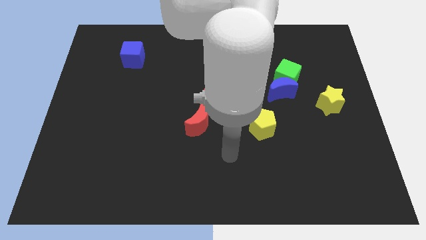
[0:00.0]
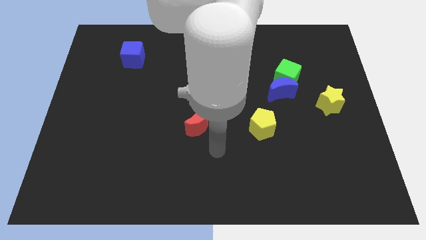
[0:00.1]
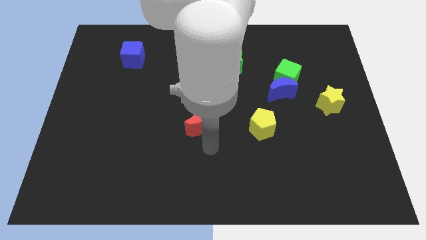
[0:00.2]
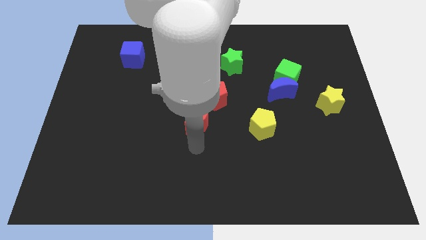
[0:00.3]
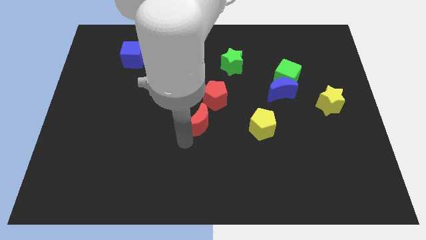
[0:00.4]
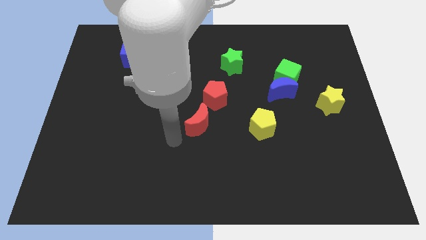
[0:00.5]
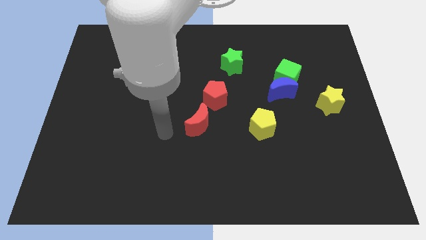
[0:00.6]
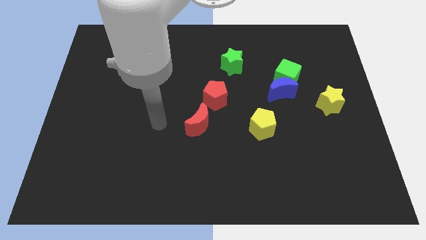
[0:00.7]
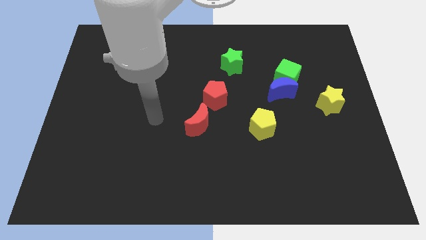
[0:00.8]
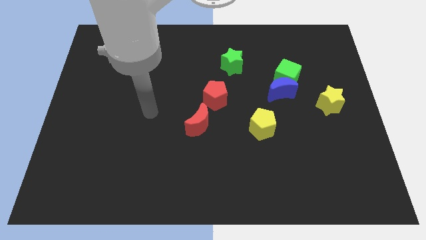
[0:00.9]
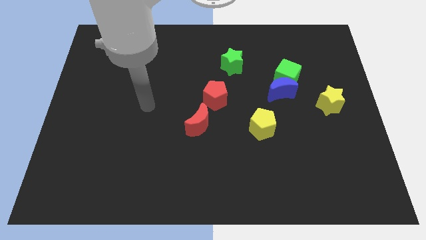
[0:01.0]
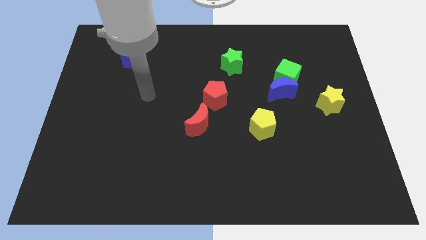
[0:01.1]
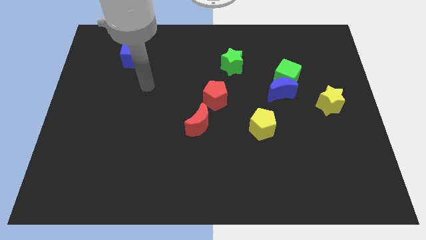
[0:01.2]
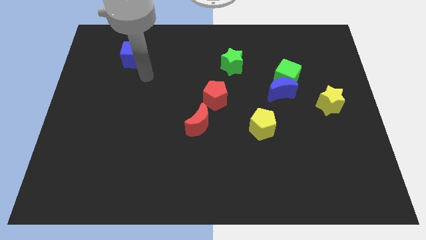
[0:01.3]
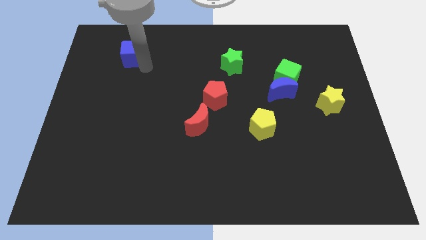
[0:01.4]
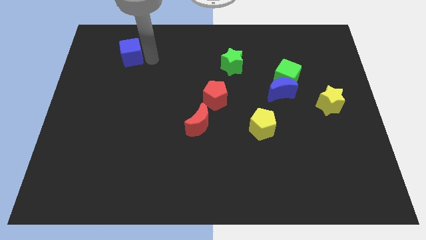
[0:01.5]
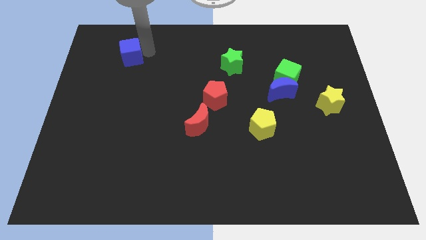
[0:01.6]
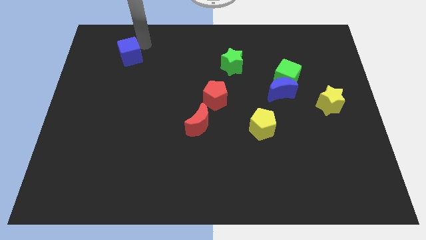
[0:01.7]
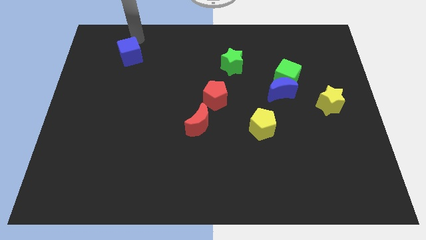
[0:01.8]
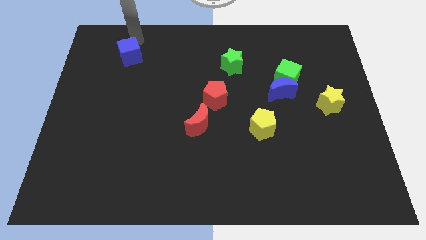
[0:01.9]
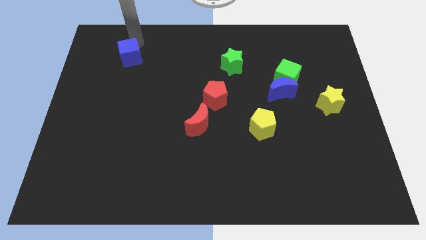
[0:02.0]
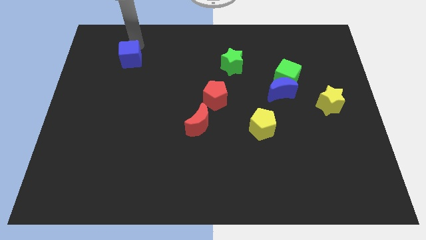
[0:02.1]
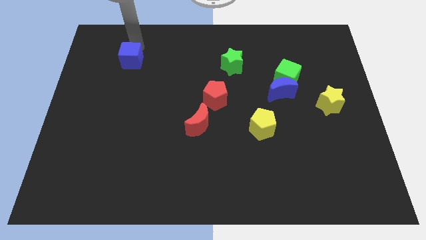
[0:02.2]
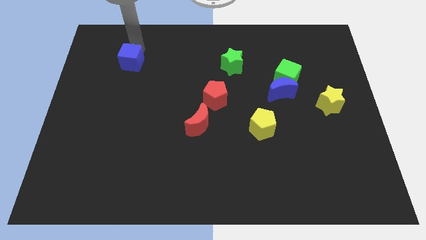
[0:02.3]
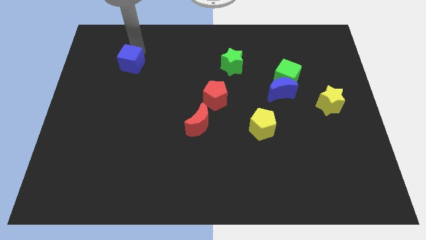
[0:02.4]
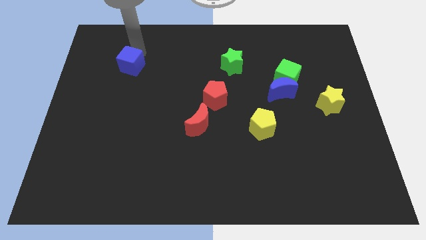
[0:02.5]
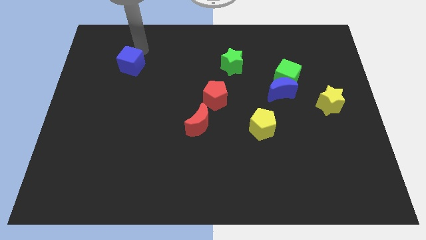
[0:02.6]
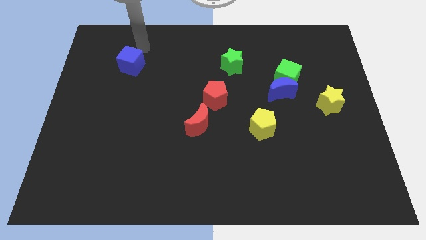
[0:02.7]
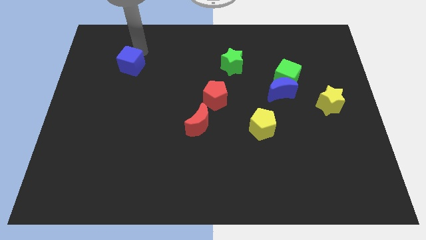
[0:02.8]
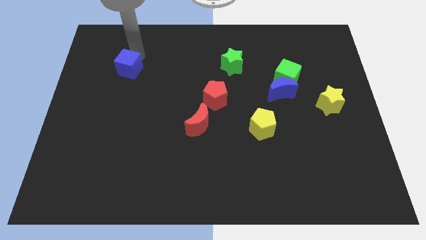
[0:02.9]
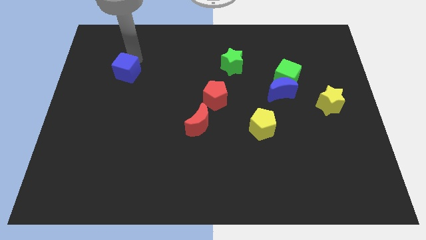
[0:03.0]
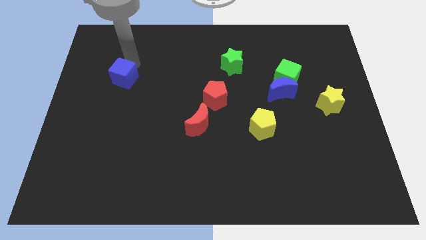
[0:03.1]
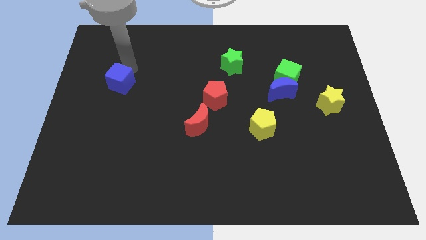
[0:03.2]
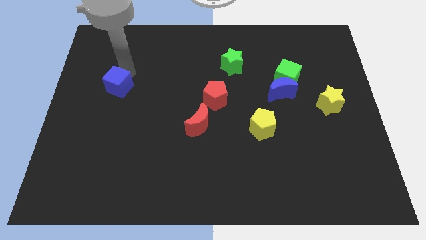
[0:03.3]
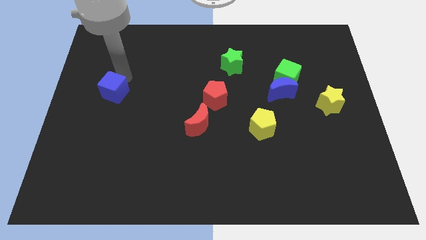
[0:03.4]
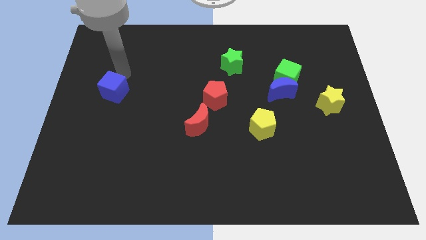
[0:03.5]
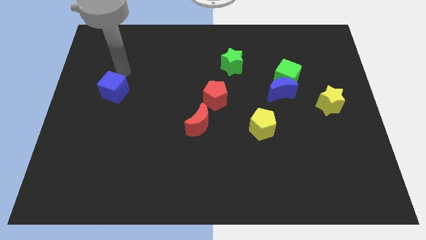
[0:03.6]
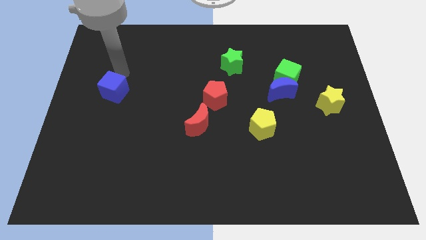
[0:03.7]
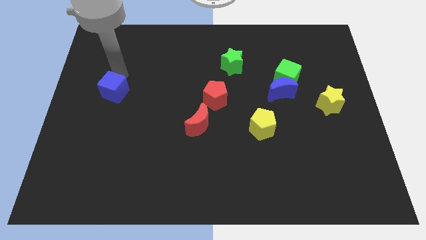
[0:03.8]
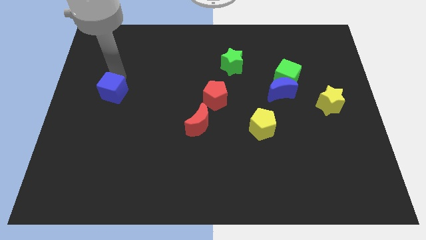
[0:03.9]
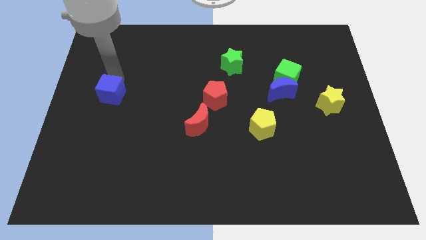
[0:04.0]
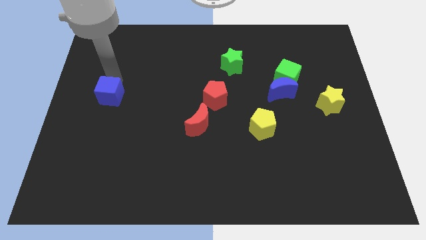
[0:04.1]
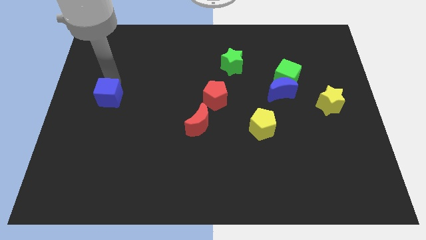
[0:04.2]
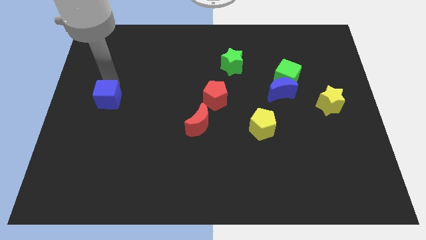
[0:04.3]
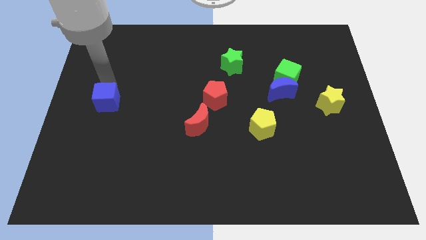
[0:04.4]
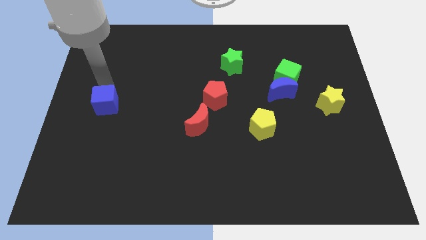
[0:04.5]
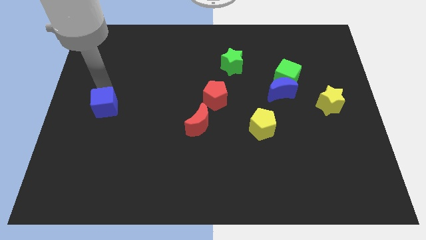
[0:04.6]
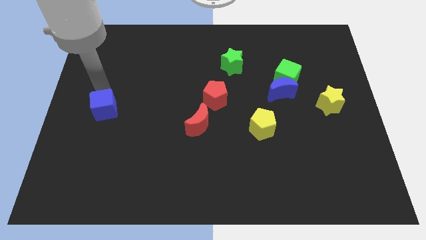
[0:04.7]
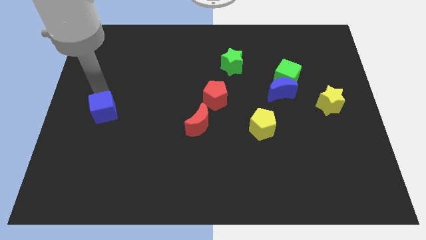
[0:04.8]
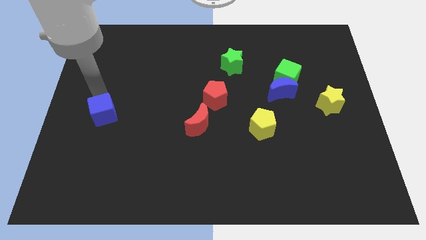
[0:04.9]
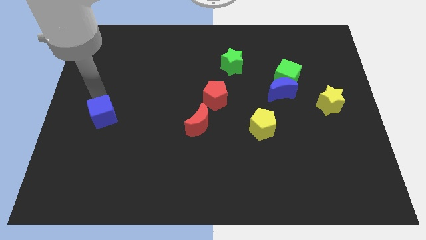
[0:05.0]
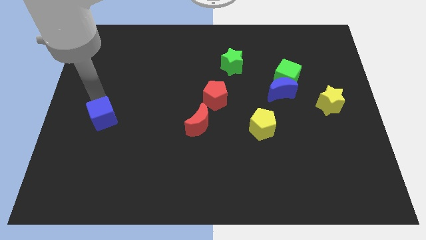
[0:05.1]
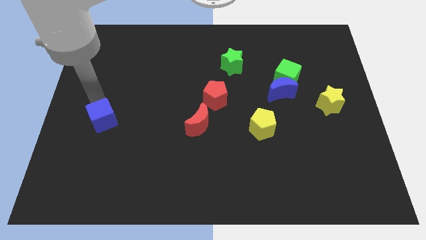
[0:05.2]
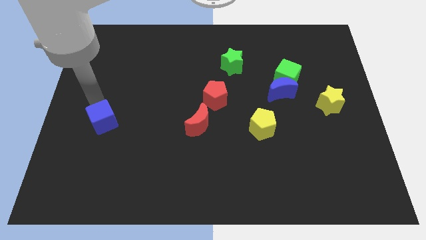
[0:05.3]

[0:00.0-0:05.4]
move the blue cube down

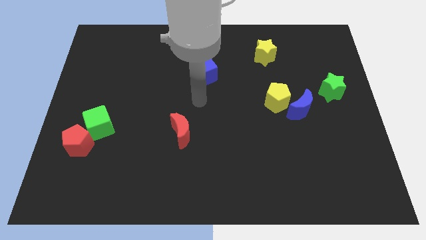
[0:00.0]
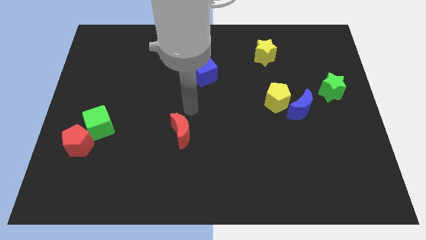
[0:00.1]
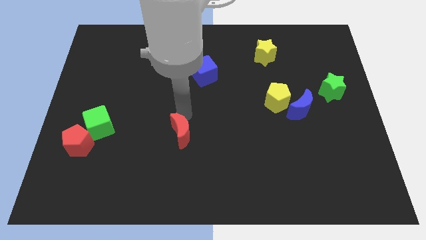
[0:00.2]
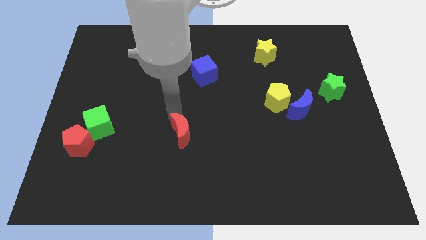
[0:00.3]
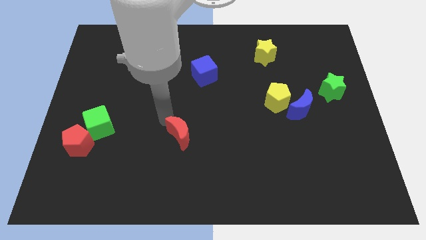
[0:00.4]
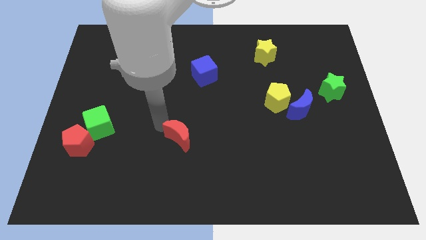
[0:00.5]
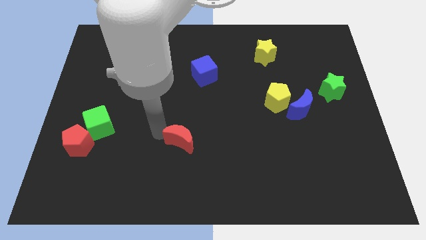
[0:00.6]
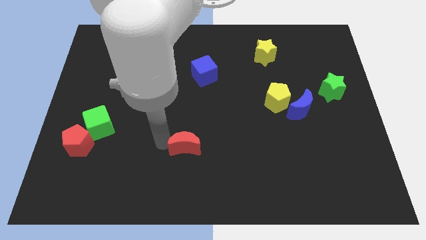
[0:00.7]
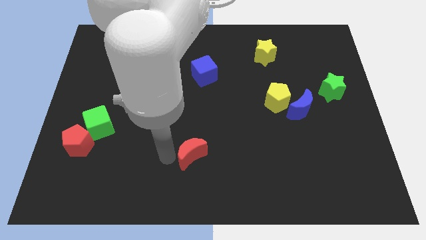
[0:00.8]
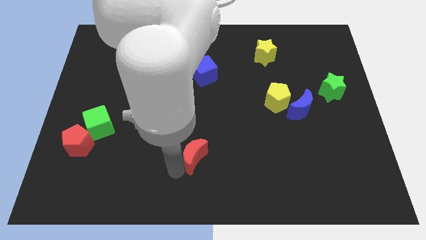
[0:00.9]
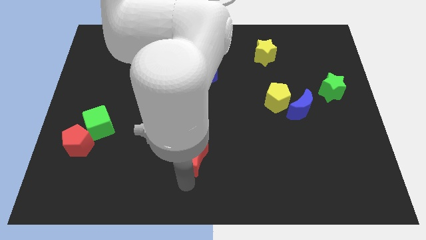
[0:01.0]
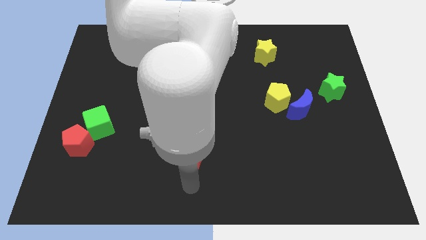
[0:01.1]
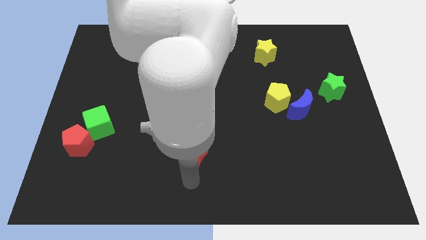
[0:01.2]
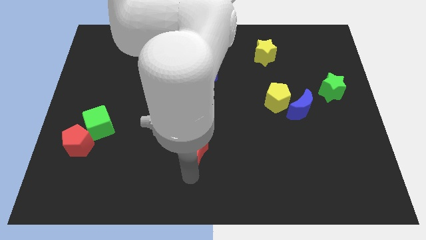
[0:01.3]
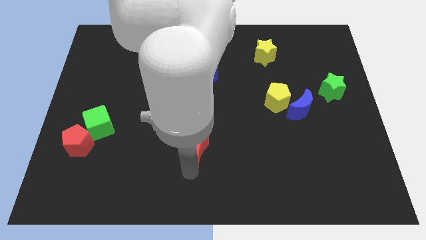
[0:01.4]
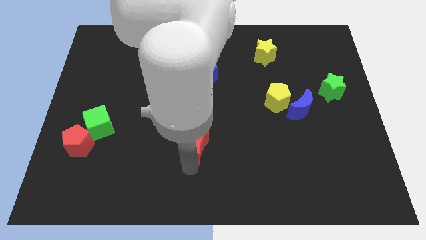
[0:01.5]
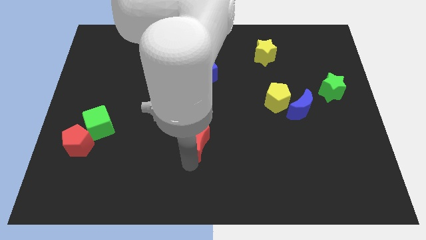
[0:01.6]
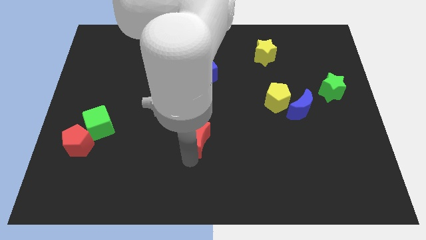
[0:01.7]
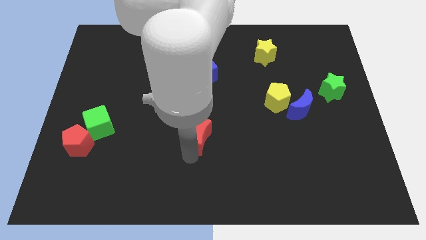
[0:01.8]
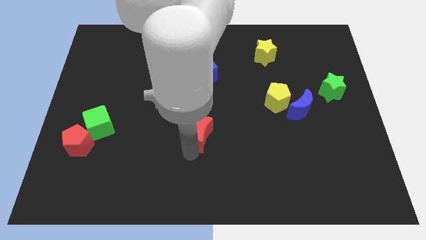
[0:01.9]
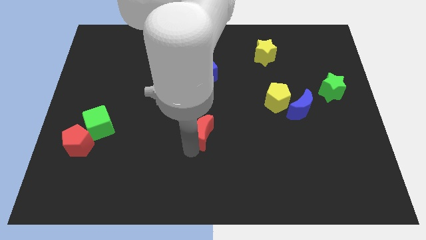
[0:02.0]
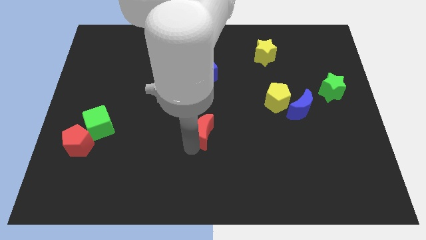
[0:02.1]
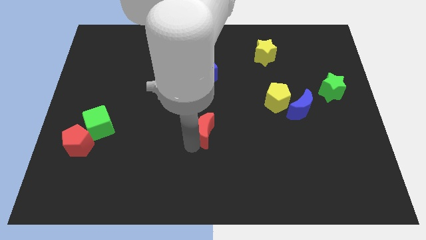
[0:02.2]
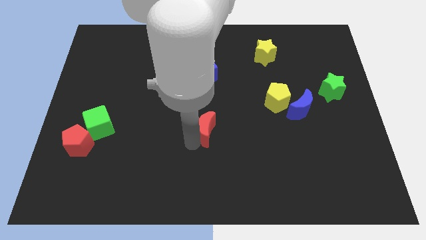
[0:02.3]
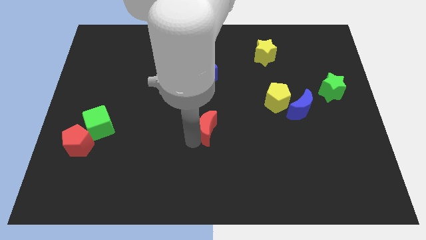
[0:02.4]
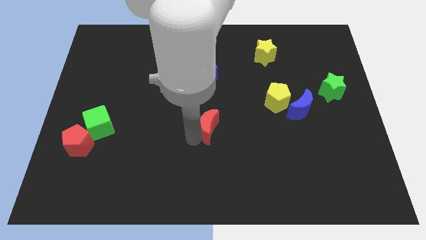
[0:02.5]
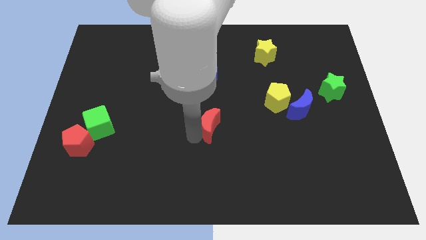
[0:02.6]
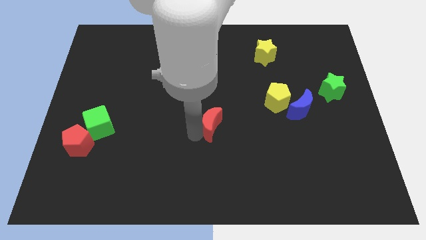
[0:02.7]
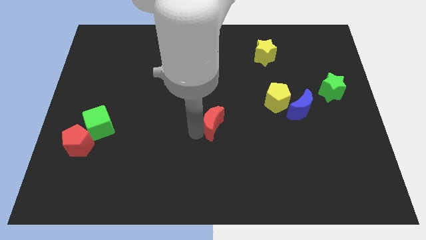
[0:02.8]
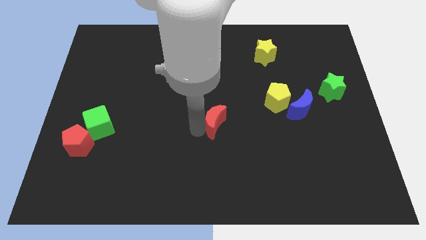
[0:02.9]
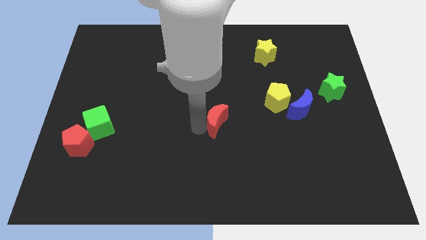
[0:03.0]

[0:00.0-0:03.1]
slide the red moon up and right diagonally a little
